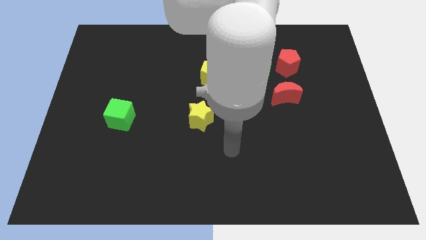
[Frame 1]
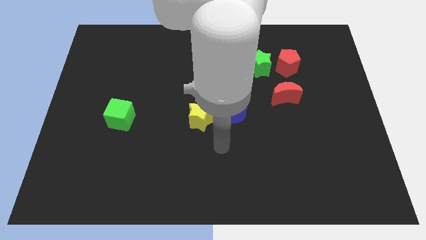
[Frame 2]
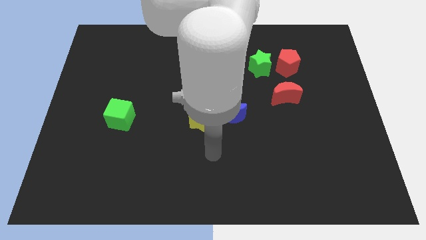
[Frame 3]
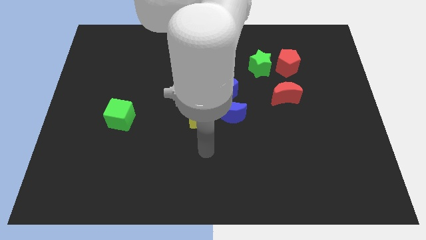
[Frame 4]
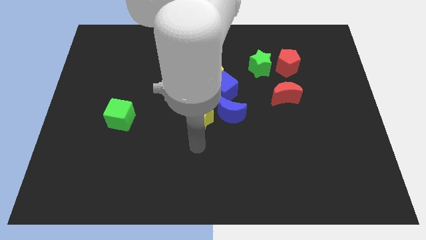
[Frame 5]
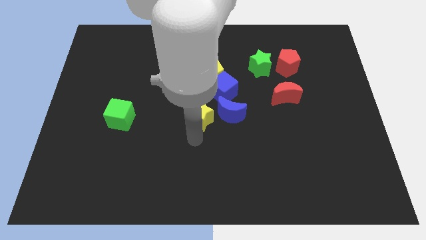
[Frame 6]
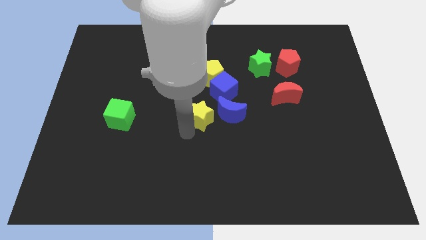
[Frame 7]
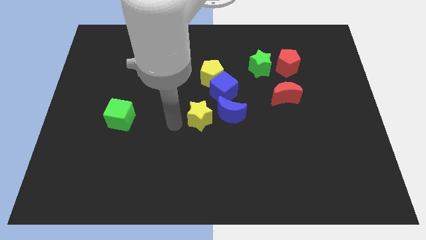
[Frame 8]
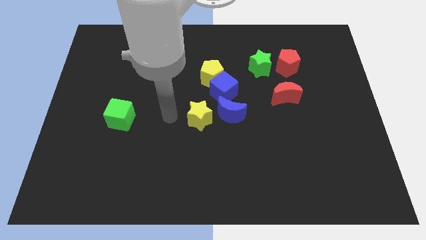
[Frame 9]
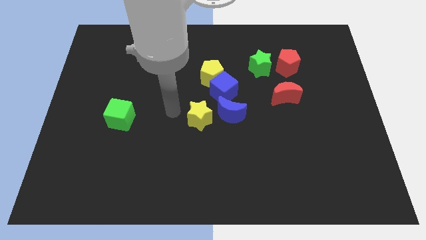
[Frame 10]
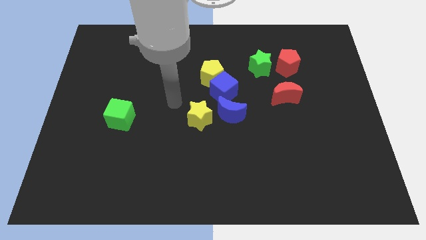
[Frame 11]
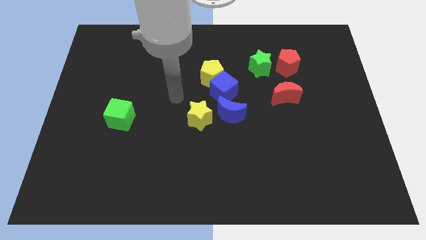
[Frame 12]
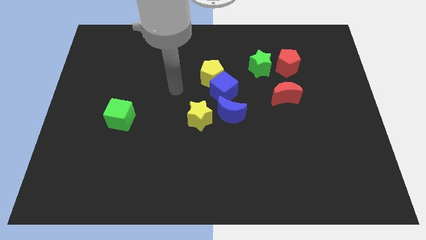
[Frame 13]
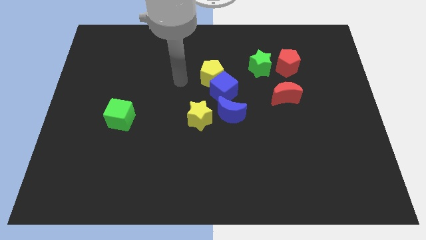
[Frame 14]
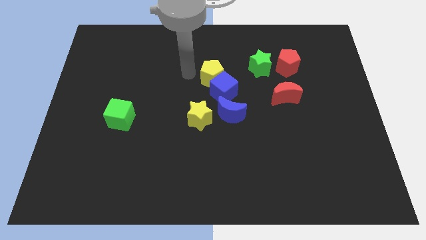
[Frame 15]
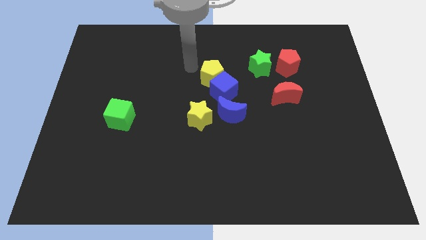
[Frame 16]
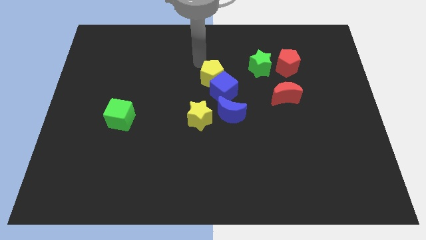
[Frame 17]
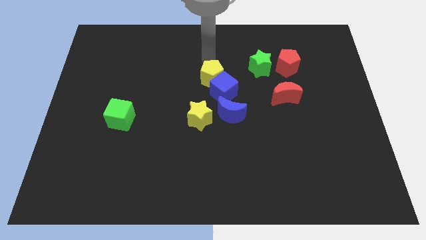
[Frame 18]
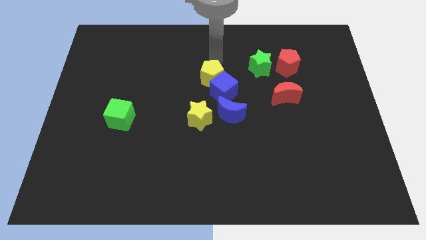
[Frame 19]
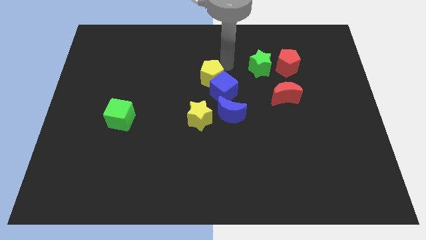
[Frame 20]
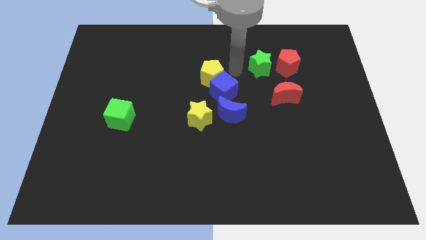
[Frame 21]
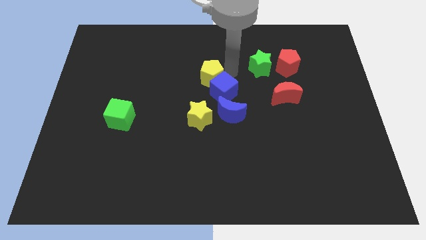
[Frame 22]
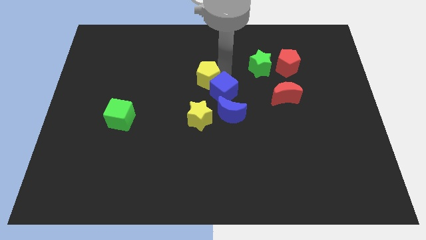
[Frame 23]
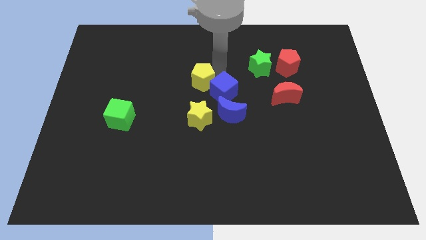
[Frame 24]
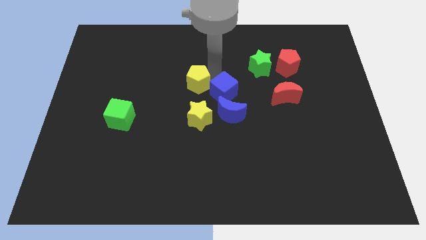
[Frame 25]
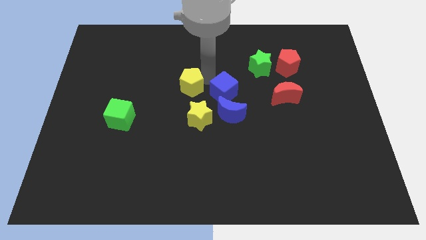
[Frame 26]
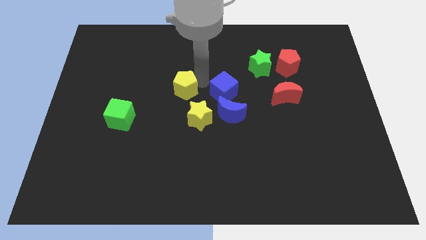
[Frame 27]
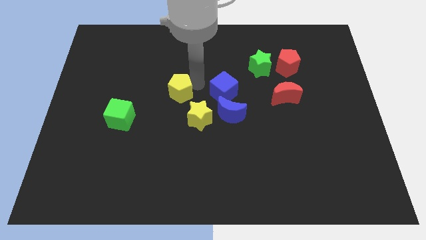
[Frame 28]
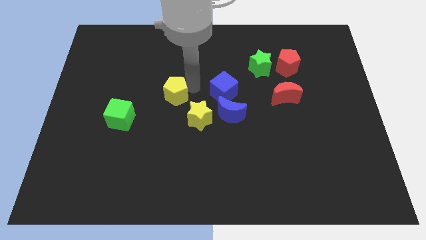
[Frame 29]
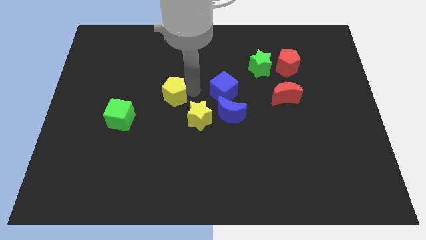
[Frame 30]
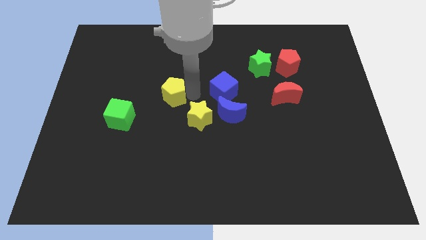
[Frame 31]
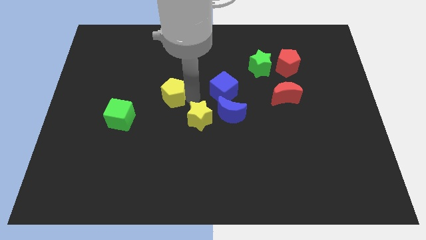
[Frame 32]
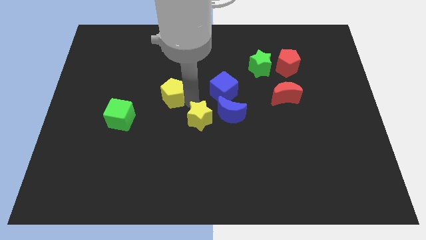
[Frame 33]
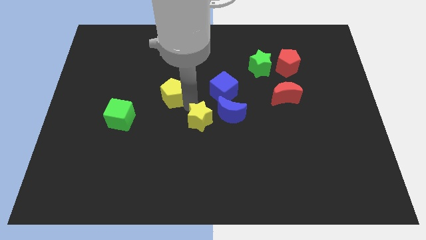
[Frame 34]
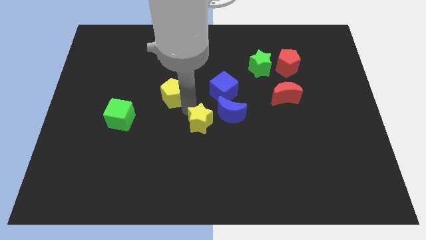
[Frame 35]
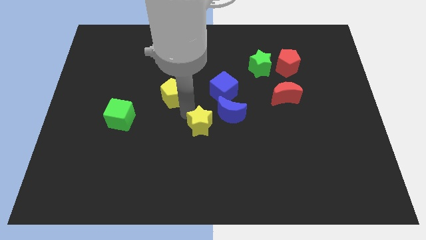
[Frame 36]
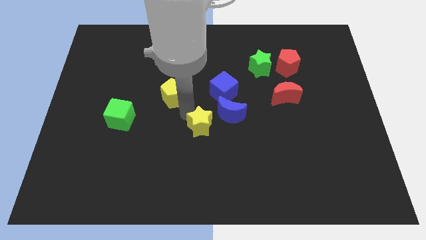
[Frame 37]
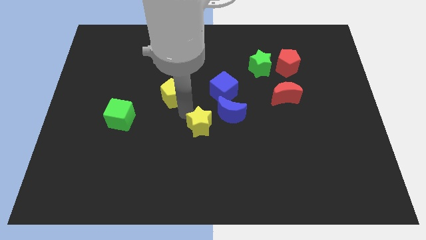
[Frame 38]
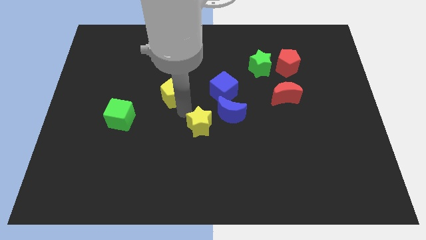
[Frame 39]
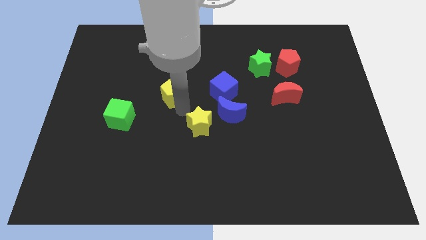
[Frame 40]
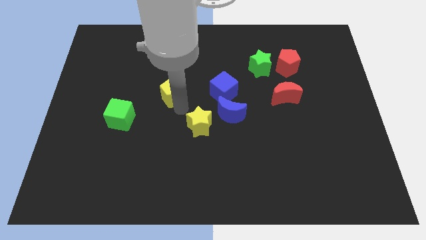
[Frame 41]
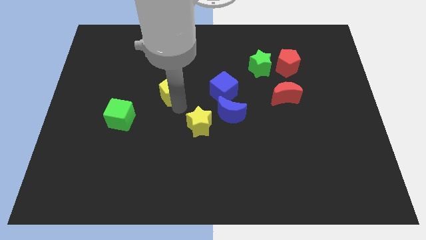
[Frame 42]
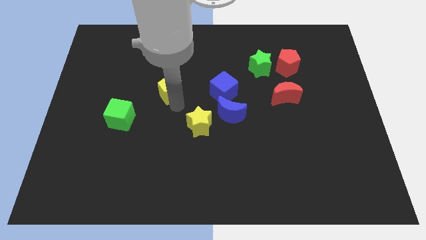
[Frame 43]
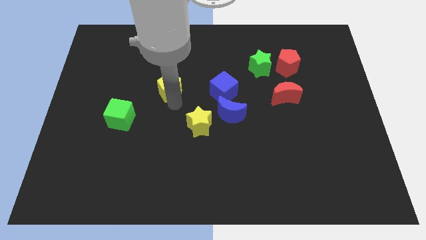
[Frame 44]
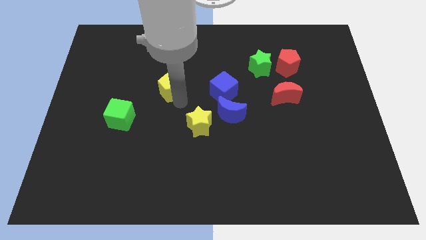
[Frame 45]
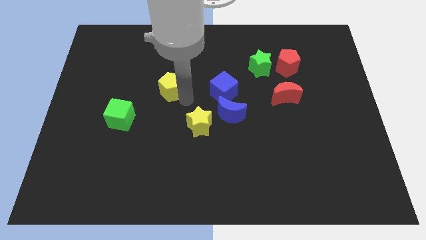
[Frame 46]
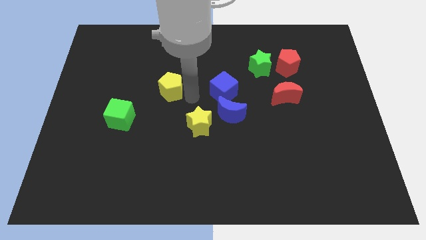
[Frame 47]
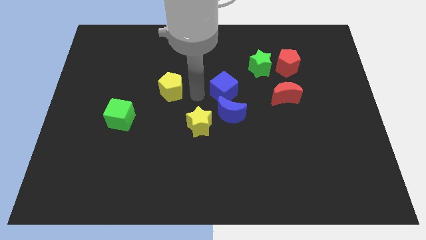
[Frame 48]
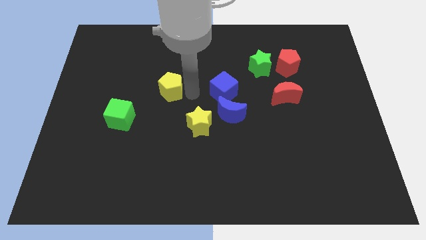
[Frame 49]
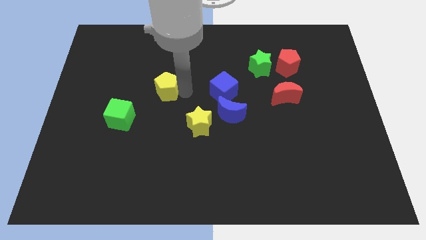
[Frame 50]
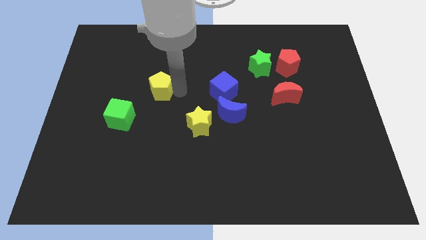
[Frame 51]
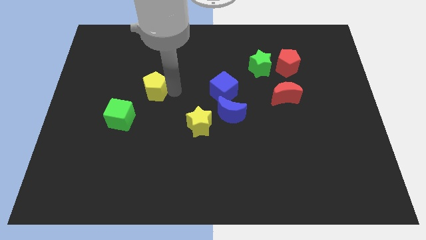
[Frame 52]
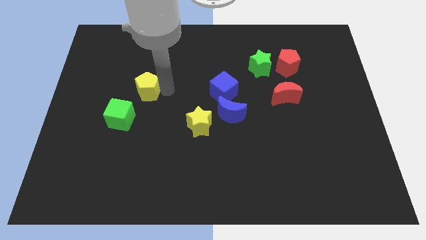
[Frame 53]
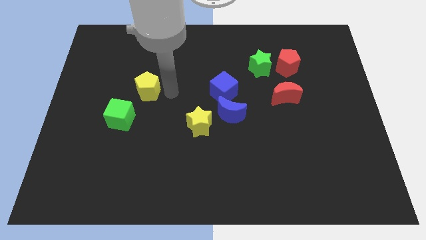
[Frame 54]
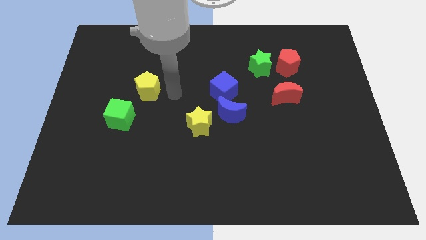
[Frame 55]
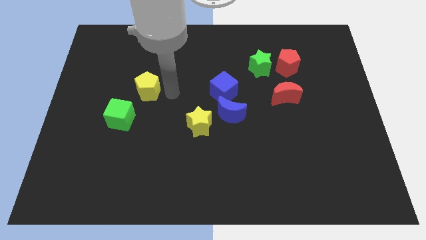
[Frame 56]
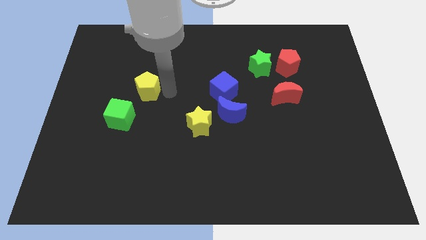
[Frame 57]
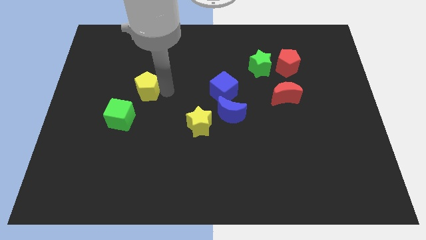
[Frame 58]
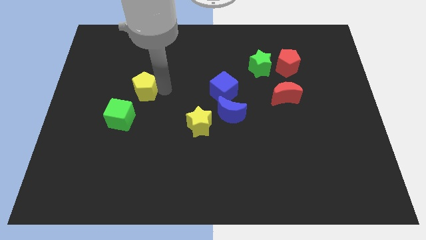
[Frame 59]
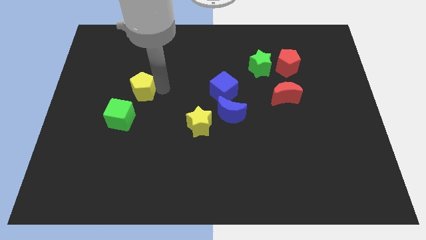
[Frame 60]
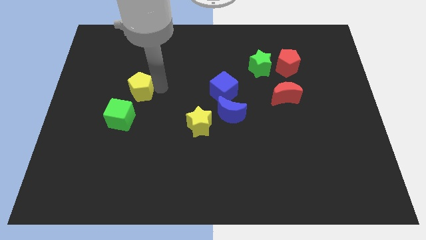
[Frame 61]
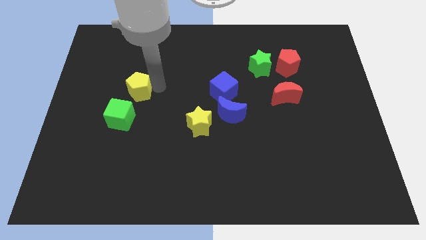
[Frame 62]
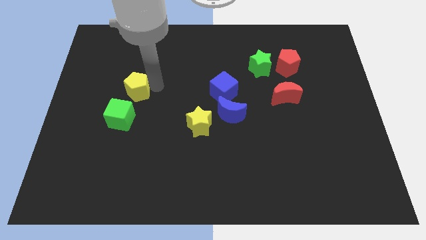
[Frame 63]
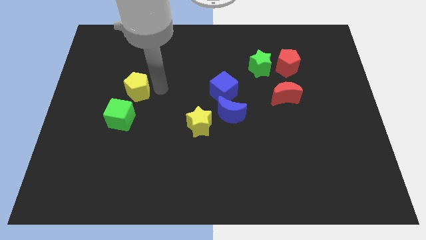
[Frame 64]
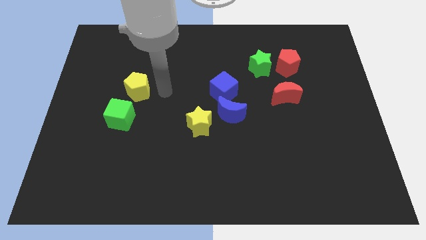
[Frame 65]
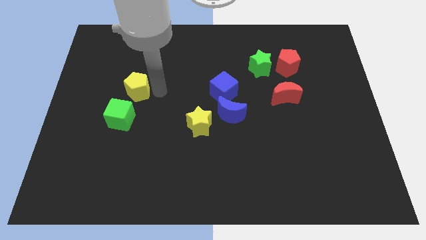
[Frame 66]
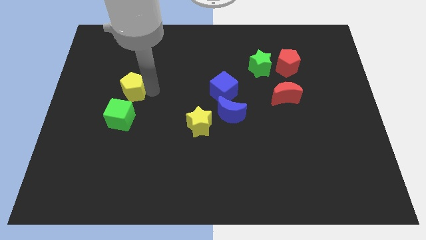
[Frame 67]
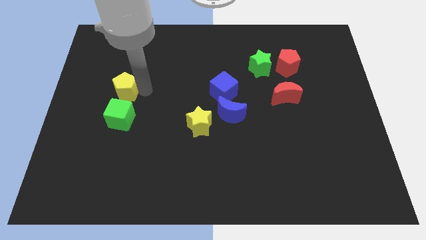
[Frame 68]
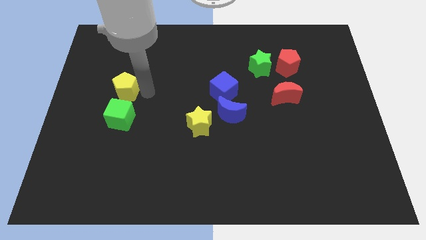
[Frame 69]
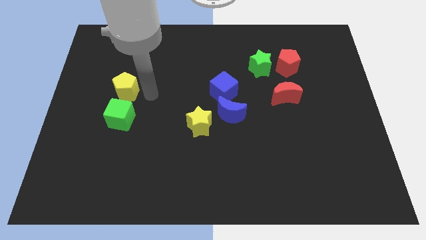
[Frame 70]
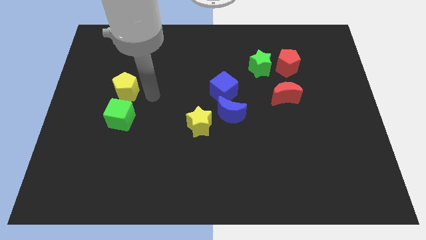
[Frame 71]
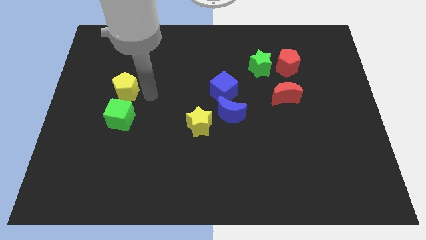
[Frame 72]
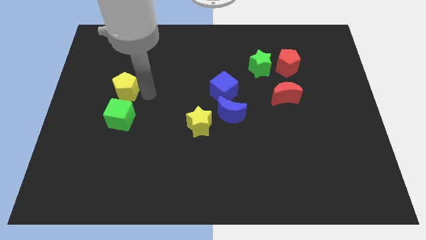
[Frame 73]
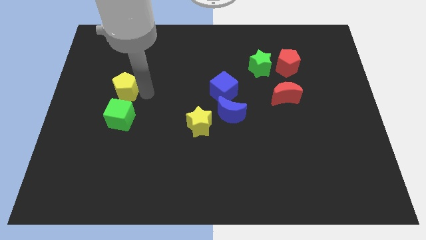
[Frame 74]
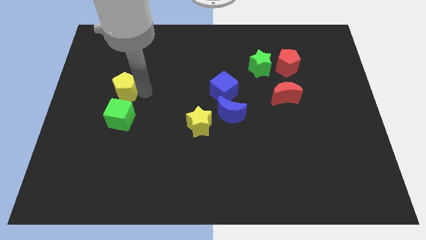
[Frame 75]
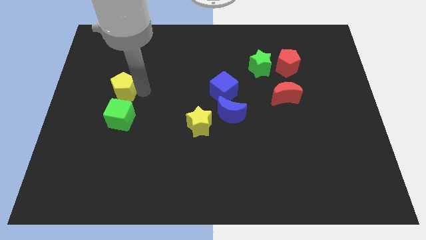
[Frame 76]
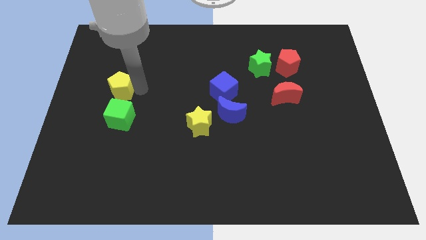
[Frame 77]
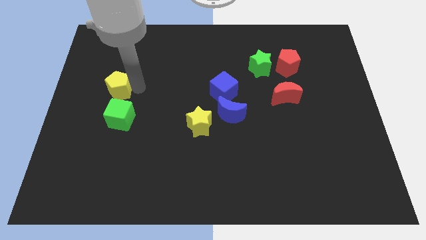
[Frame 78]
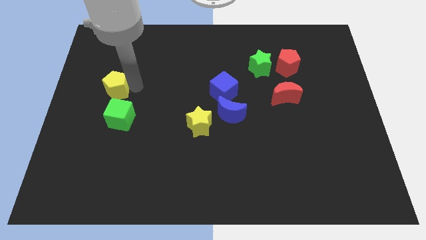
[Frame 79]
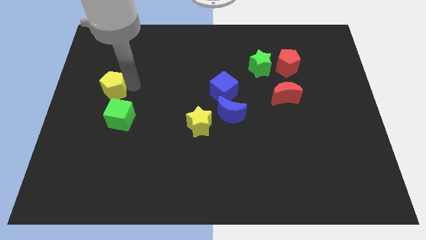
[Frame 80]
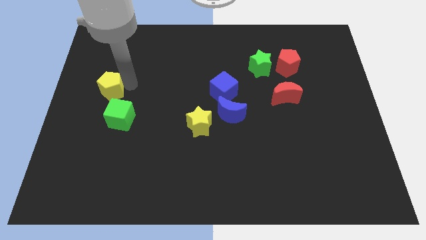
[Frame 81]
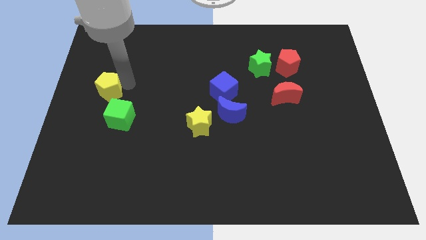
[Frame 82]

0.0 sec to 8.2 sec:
put the yellow pentagon to the center left

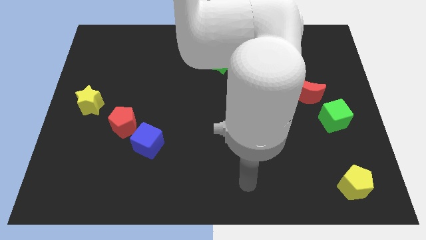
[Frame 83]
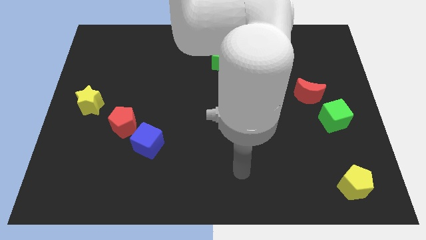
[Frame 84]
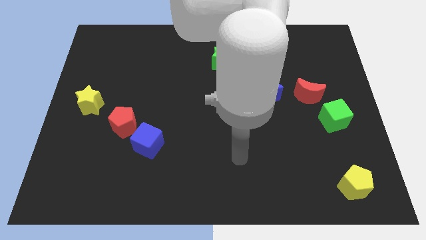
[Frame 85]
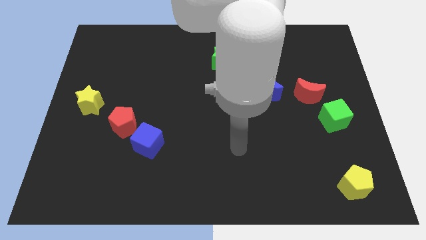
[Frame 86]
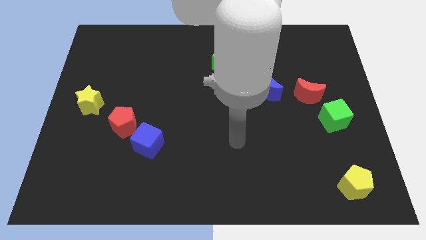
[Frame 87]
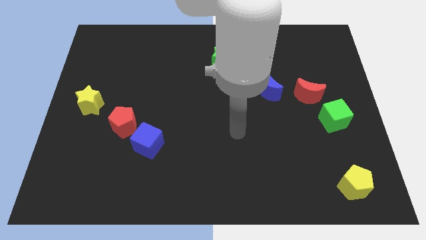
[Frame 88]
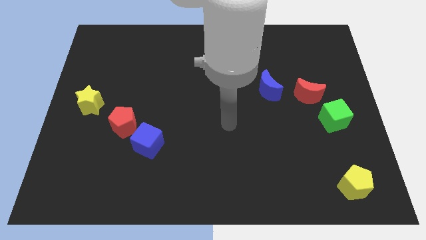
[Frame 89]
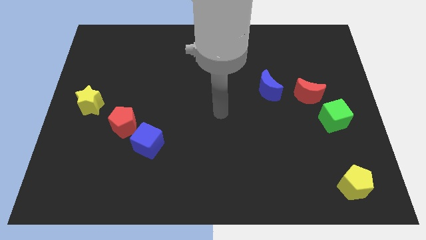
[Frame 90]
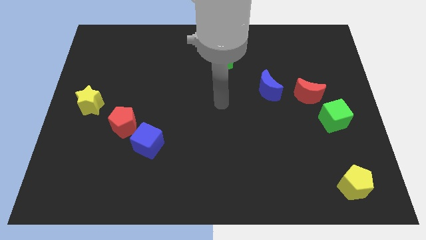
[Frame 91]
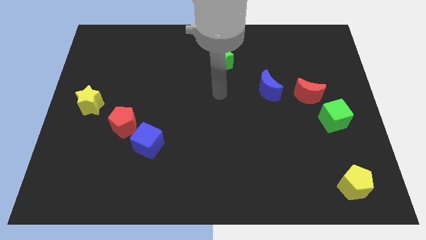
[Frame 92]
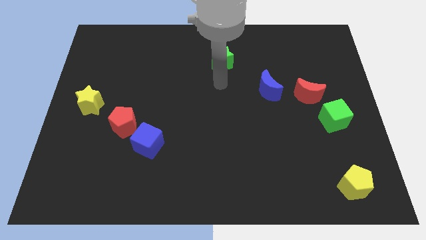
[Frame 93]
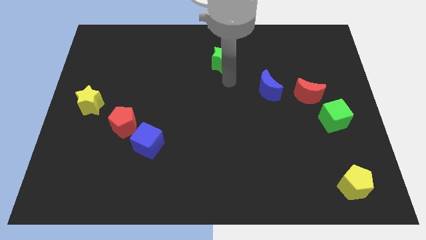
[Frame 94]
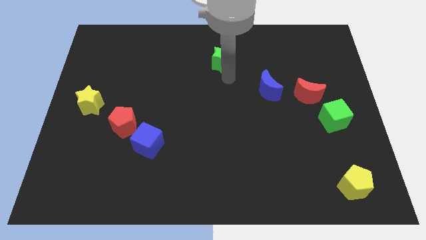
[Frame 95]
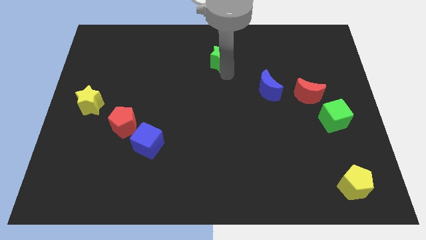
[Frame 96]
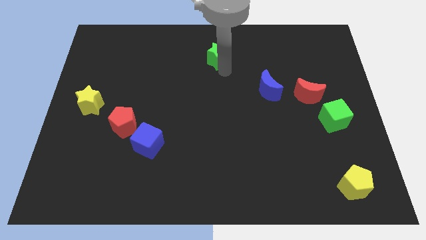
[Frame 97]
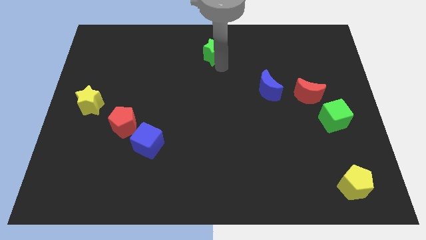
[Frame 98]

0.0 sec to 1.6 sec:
push the green star to the top side
